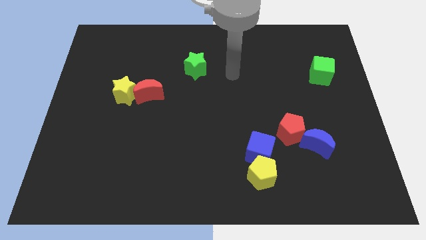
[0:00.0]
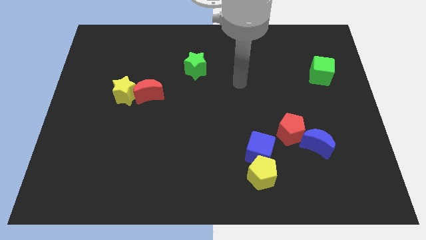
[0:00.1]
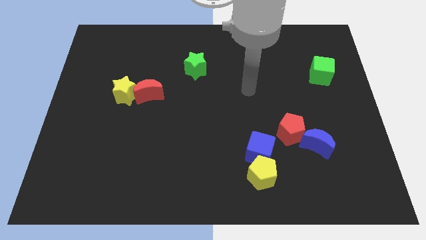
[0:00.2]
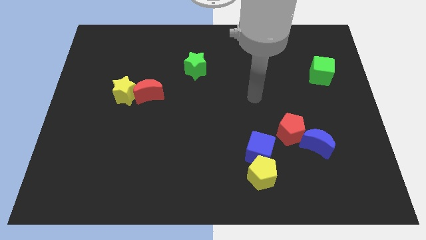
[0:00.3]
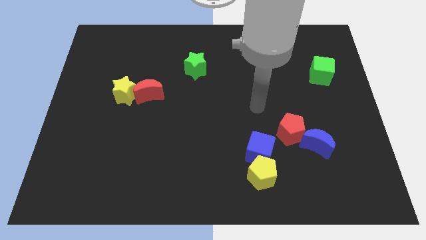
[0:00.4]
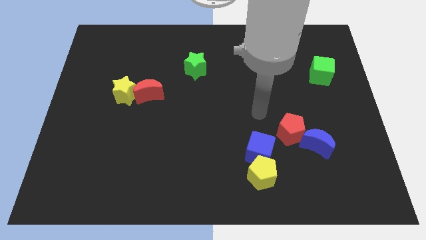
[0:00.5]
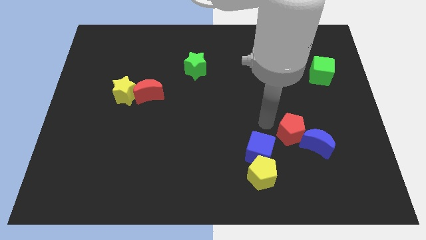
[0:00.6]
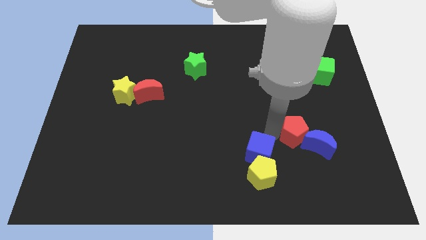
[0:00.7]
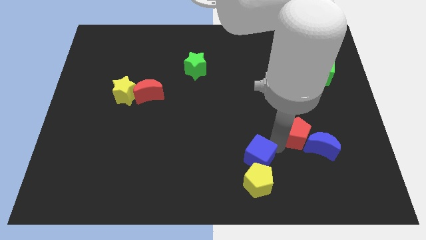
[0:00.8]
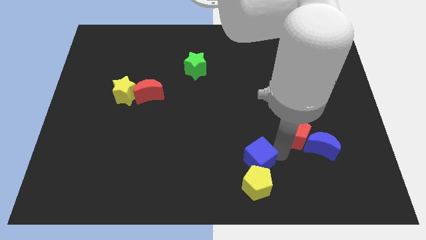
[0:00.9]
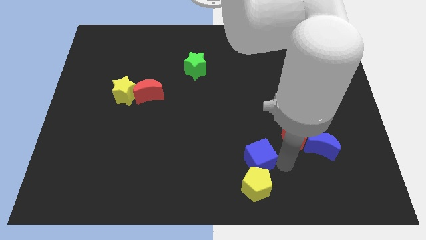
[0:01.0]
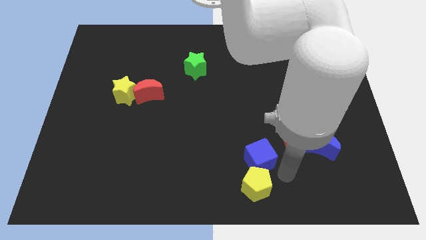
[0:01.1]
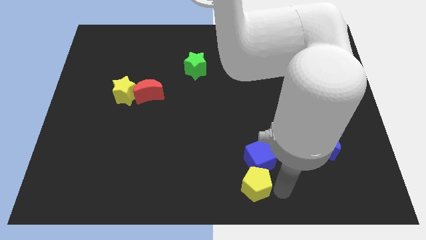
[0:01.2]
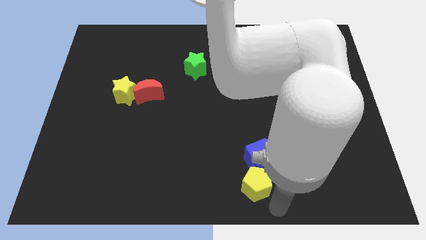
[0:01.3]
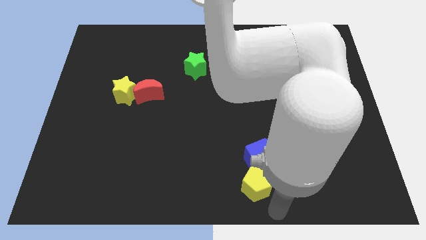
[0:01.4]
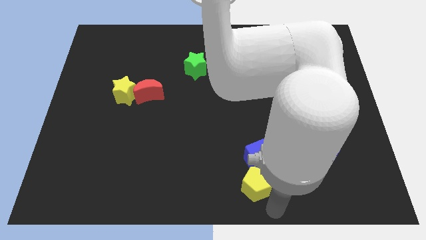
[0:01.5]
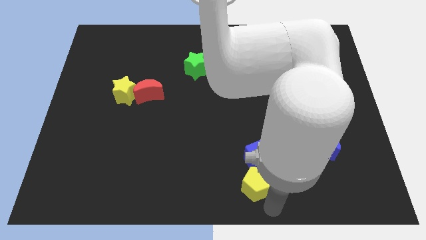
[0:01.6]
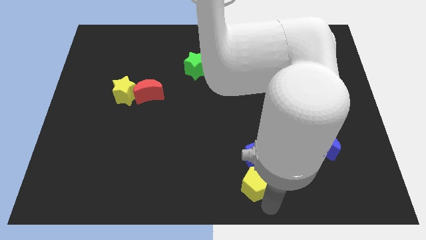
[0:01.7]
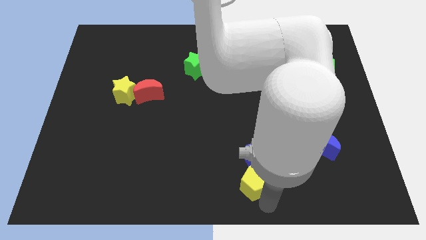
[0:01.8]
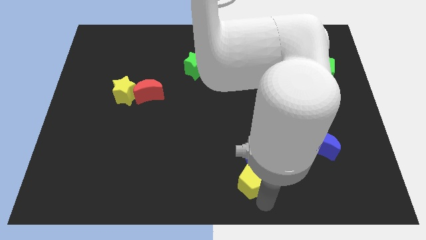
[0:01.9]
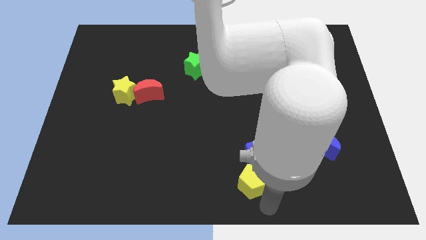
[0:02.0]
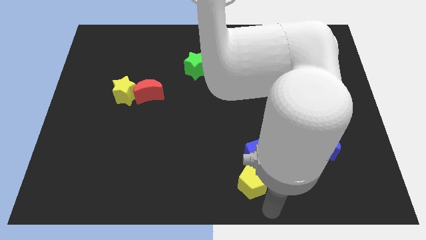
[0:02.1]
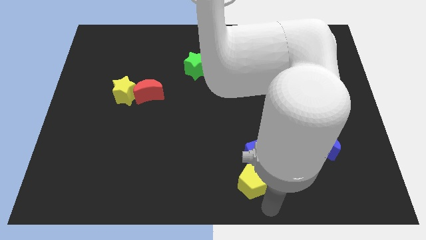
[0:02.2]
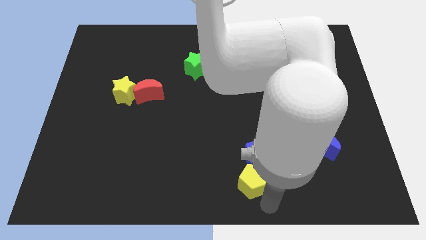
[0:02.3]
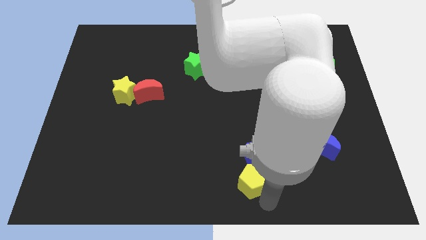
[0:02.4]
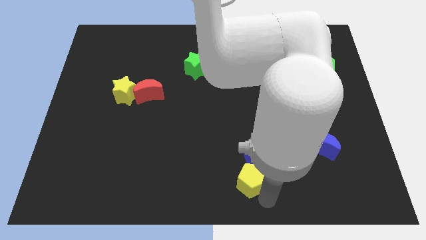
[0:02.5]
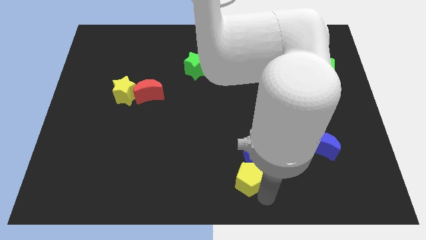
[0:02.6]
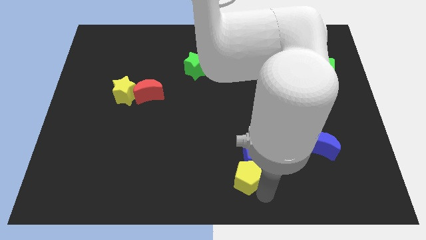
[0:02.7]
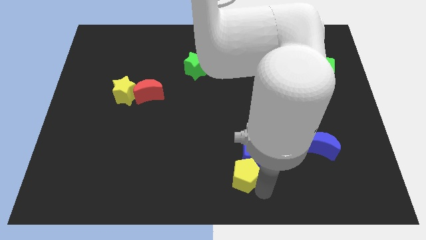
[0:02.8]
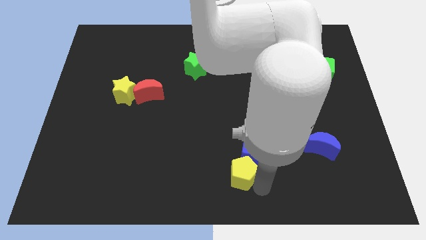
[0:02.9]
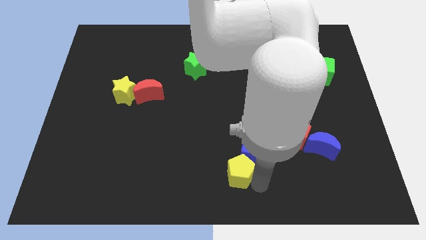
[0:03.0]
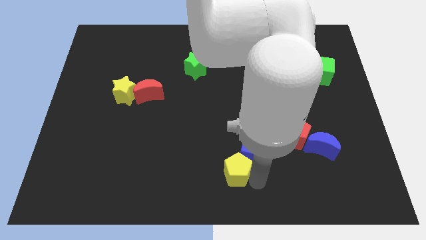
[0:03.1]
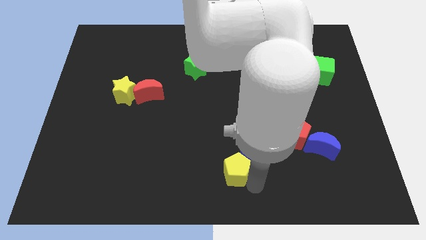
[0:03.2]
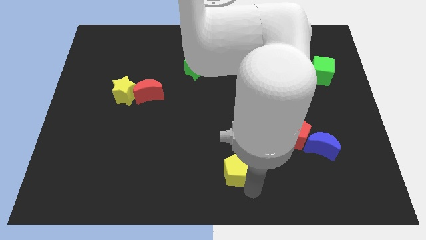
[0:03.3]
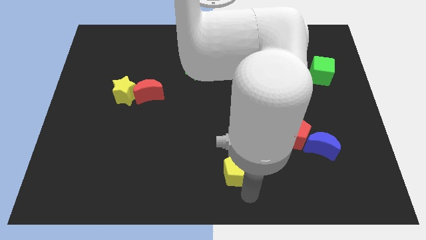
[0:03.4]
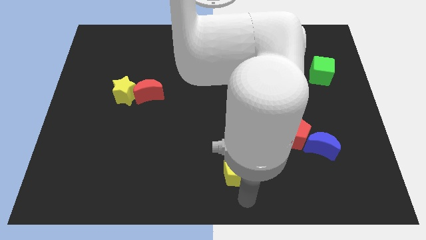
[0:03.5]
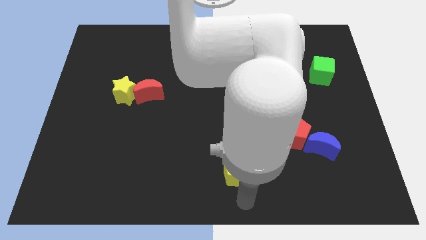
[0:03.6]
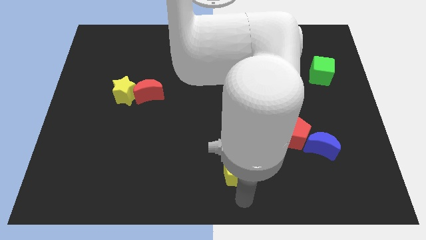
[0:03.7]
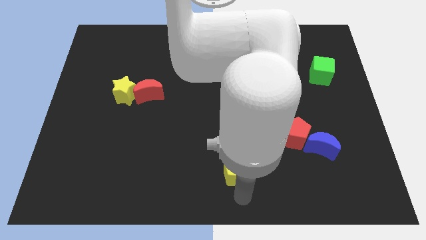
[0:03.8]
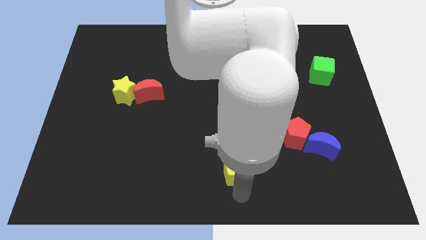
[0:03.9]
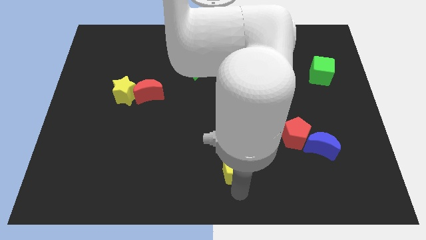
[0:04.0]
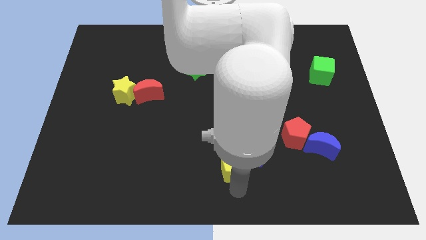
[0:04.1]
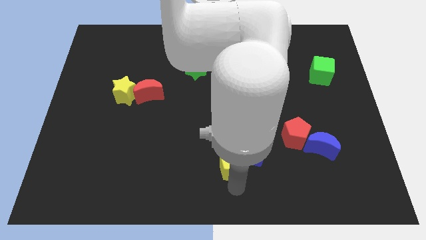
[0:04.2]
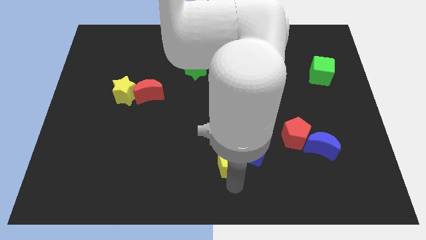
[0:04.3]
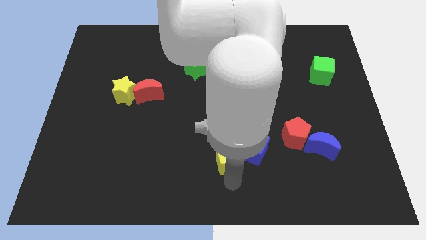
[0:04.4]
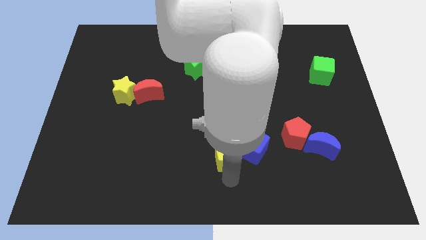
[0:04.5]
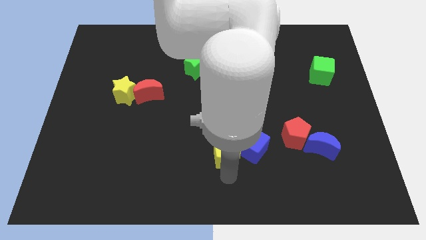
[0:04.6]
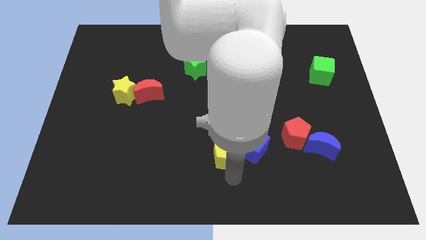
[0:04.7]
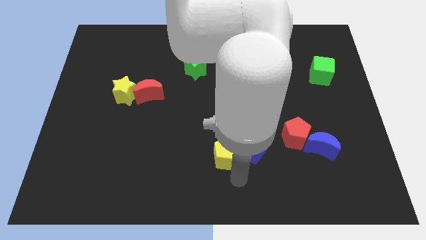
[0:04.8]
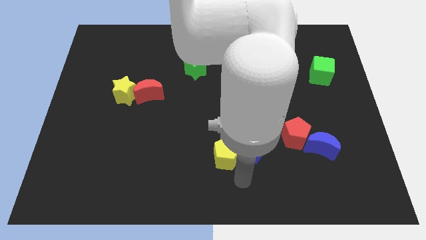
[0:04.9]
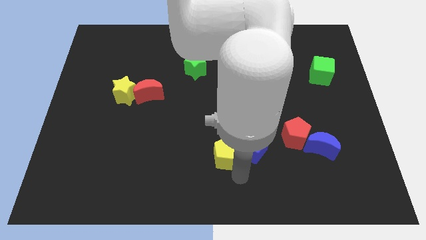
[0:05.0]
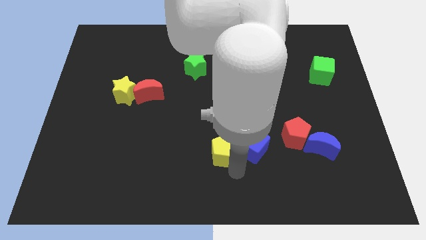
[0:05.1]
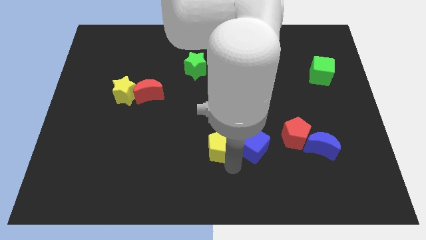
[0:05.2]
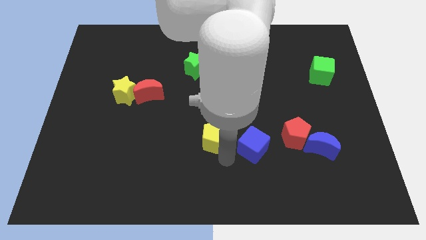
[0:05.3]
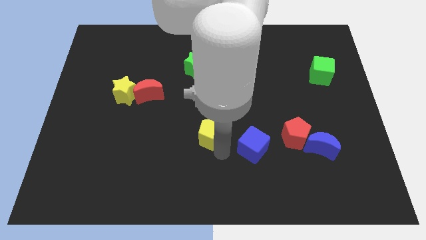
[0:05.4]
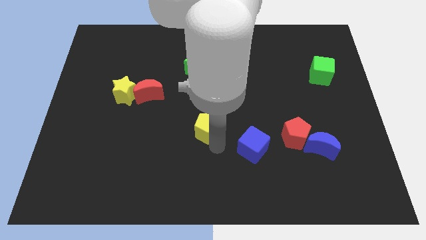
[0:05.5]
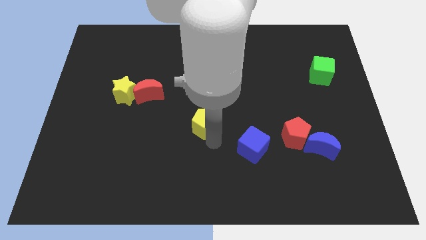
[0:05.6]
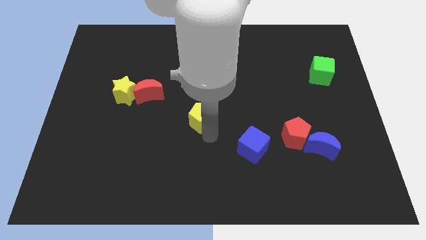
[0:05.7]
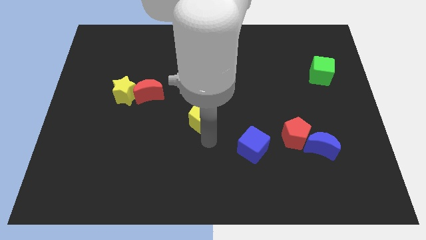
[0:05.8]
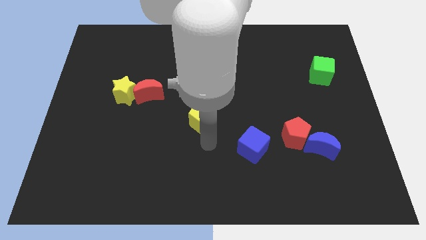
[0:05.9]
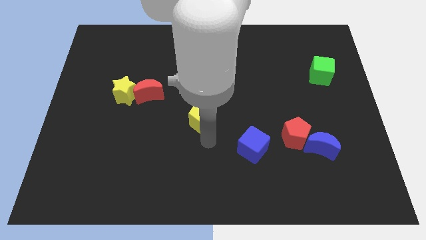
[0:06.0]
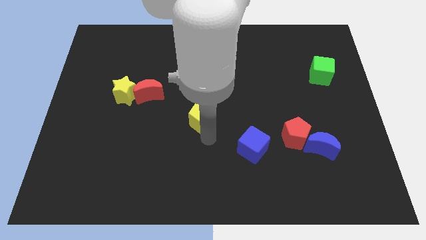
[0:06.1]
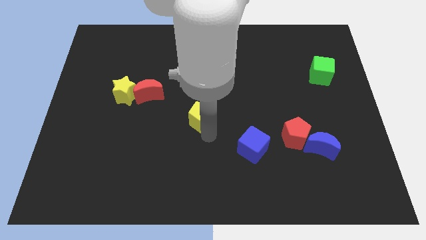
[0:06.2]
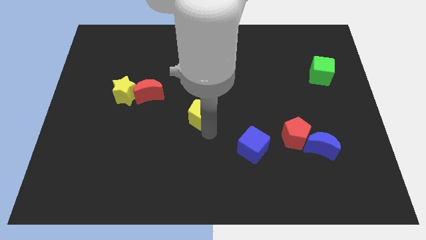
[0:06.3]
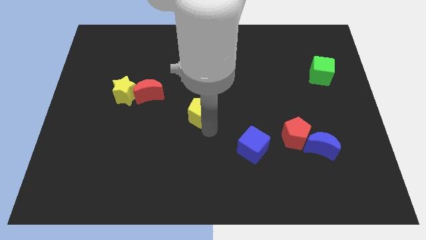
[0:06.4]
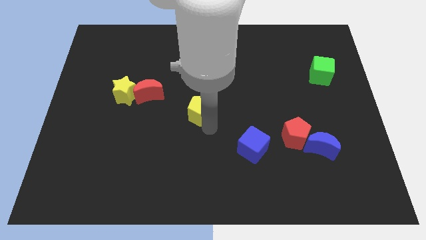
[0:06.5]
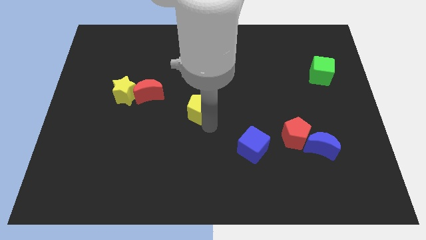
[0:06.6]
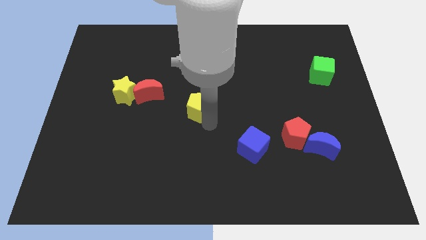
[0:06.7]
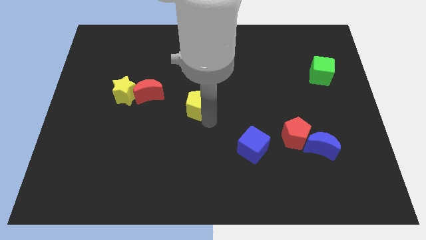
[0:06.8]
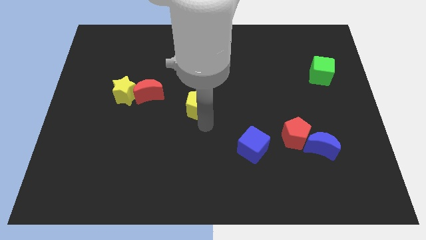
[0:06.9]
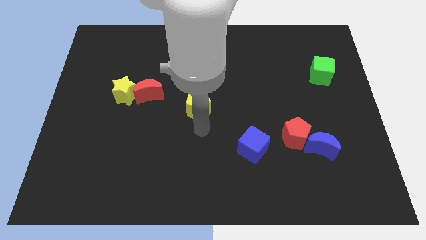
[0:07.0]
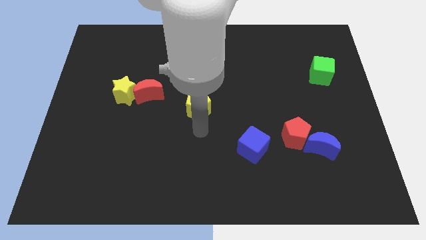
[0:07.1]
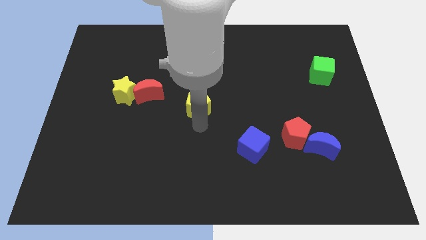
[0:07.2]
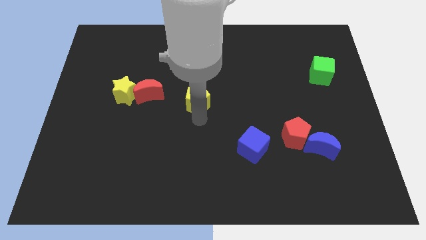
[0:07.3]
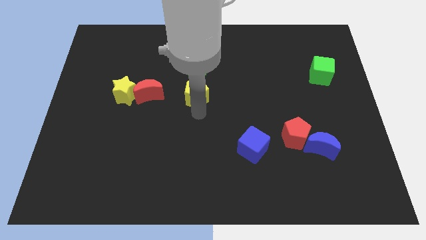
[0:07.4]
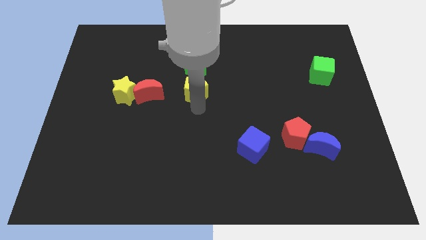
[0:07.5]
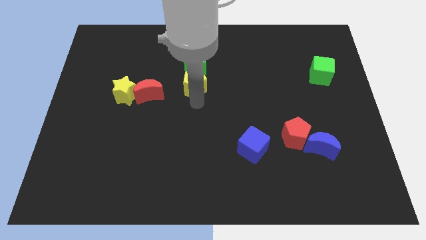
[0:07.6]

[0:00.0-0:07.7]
slide the yellow pentagon close to the green star
